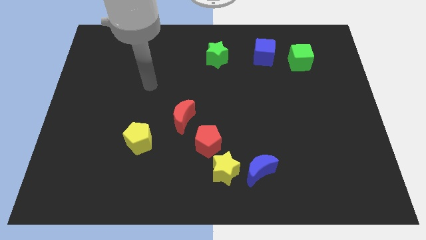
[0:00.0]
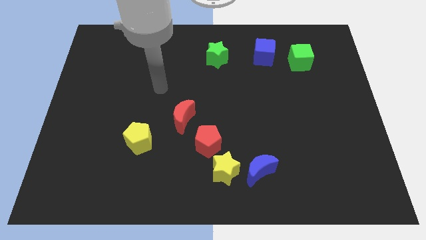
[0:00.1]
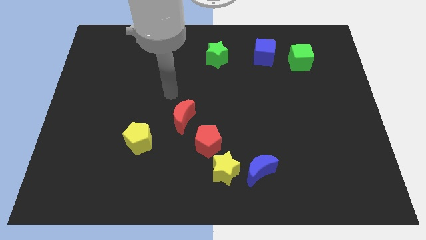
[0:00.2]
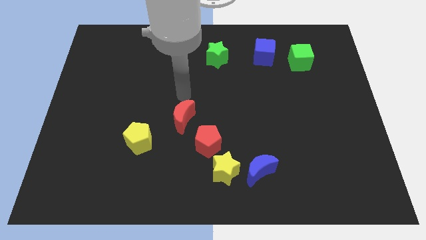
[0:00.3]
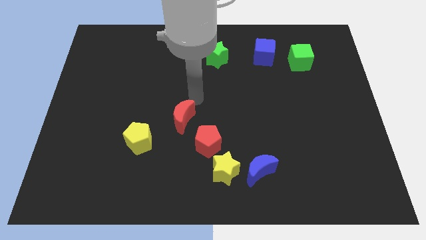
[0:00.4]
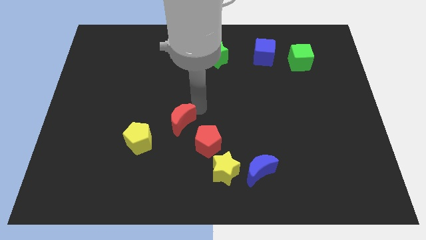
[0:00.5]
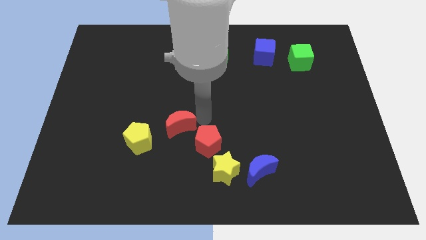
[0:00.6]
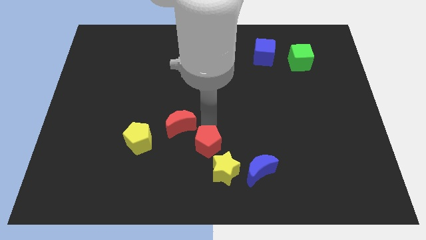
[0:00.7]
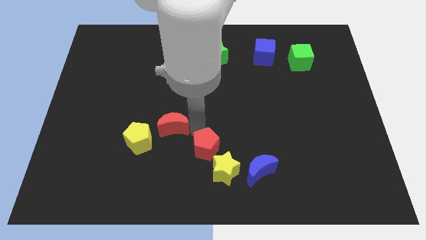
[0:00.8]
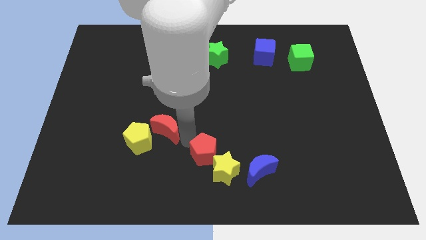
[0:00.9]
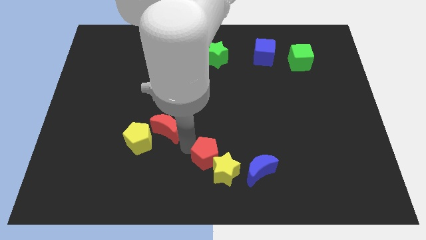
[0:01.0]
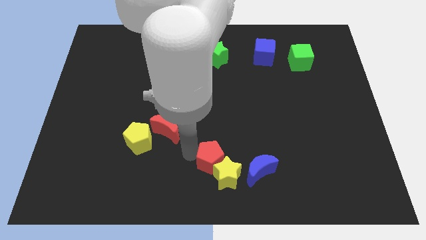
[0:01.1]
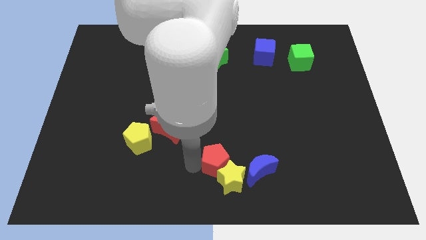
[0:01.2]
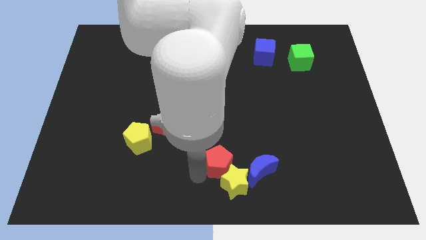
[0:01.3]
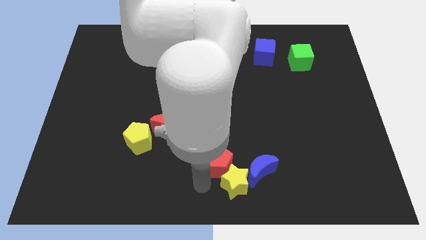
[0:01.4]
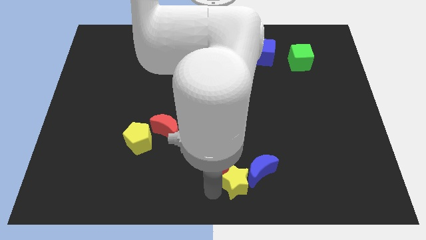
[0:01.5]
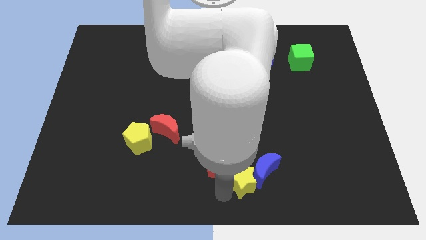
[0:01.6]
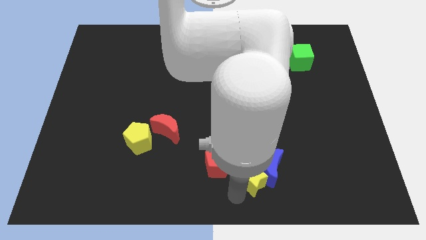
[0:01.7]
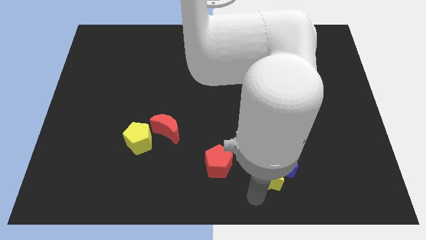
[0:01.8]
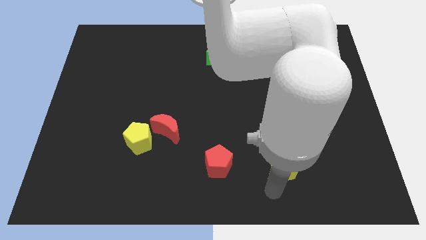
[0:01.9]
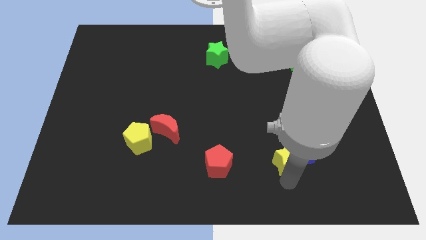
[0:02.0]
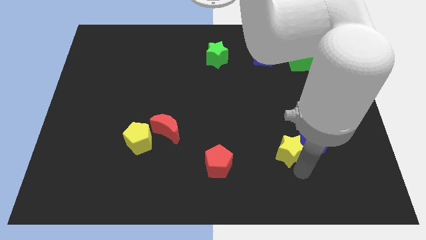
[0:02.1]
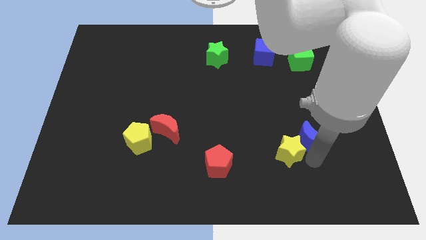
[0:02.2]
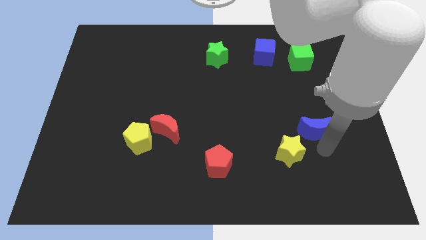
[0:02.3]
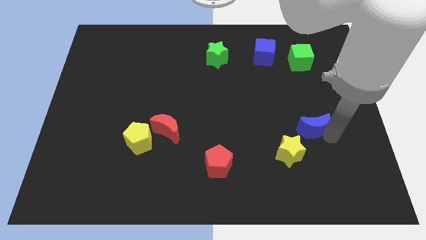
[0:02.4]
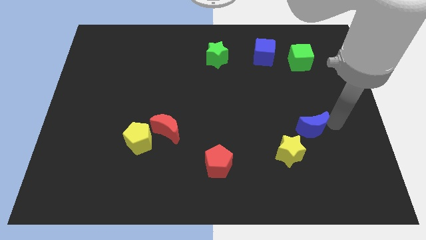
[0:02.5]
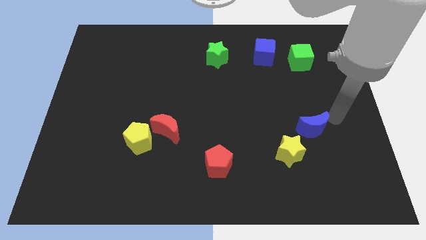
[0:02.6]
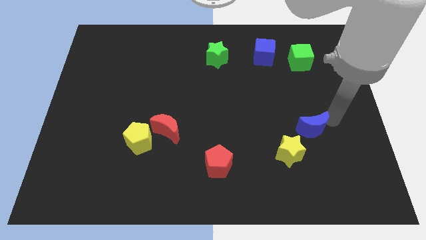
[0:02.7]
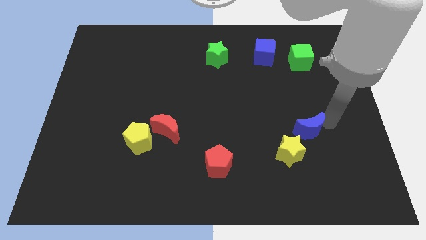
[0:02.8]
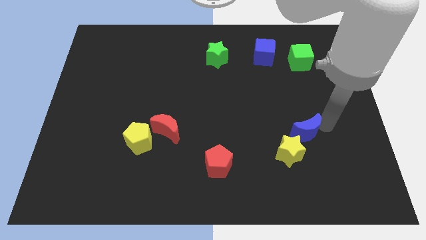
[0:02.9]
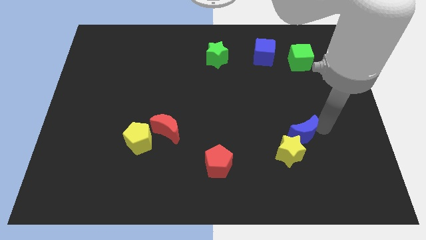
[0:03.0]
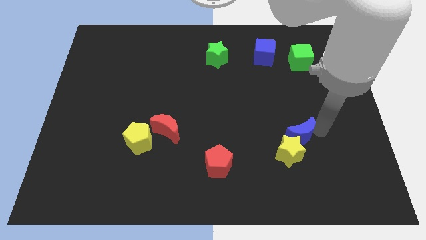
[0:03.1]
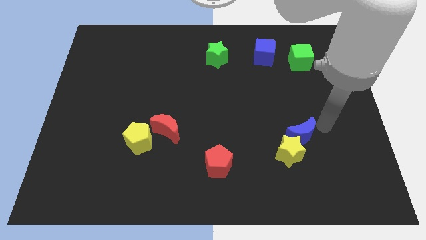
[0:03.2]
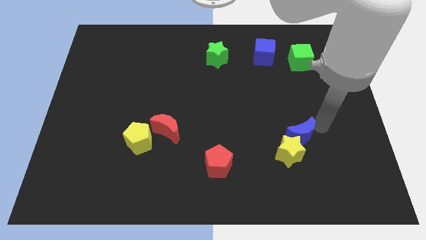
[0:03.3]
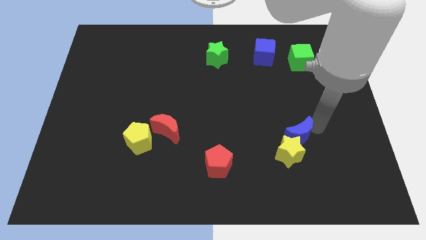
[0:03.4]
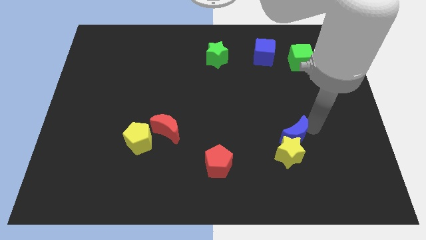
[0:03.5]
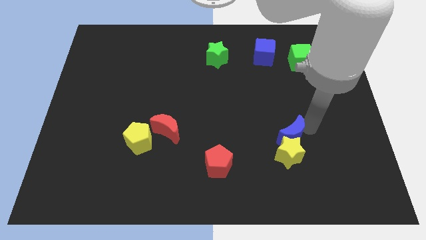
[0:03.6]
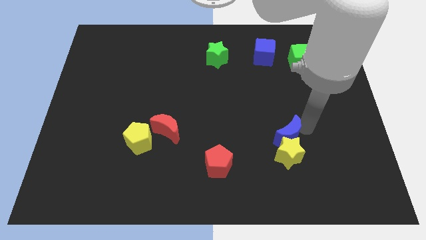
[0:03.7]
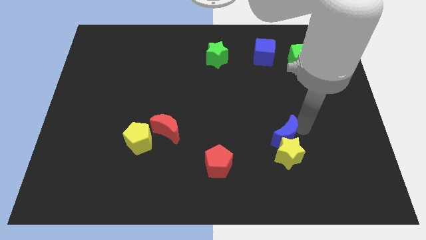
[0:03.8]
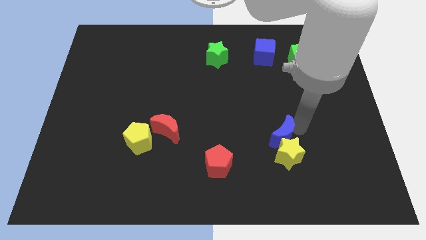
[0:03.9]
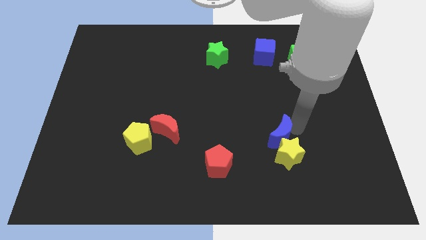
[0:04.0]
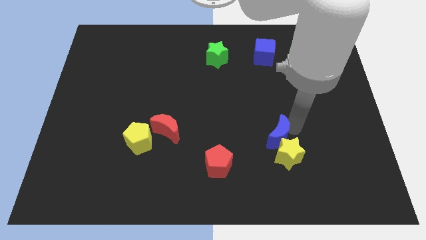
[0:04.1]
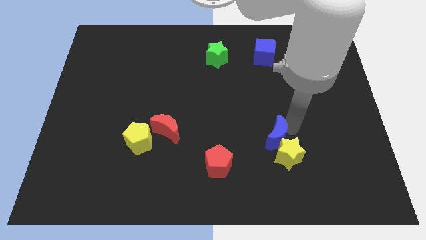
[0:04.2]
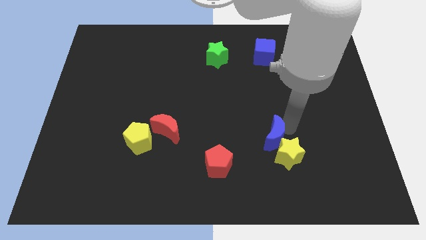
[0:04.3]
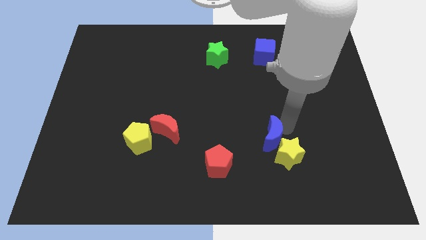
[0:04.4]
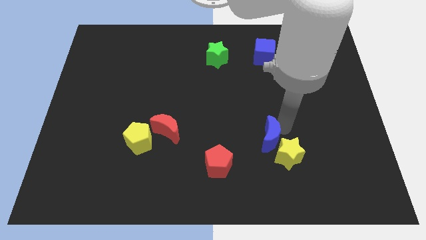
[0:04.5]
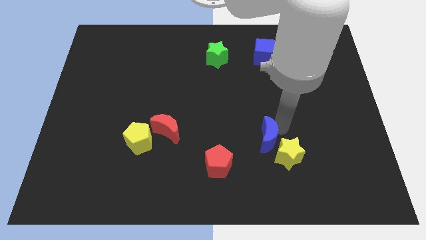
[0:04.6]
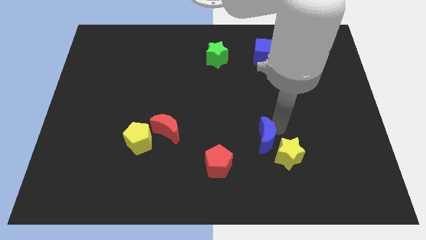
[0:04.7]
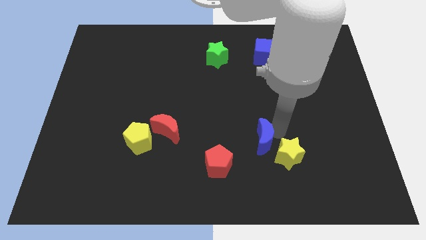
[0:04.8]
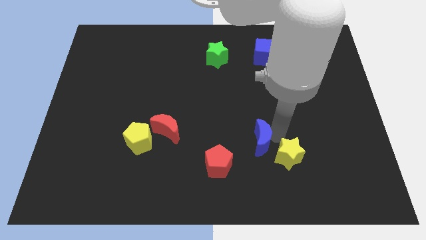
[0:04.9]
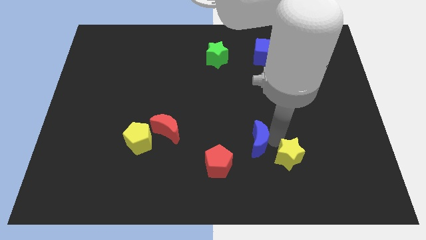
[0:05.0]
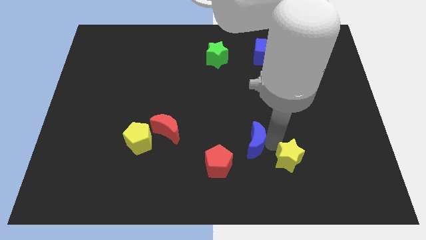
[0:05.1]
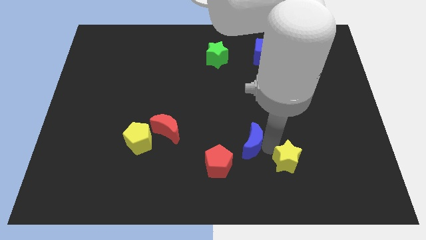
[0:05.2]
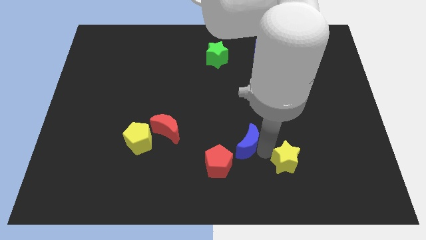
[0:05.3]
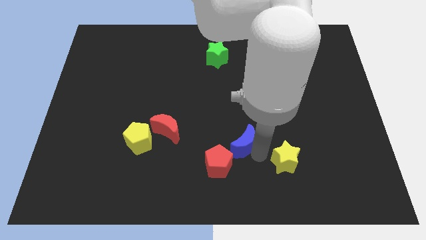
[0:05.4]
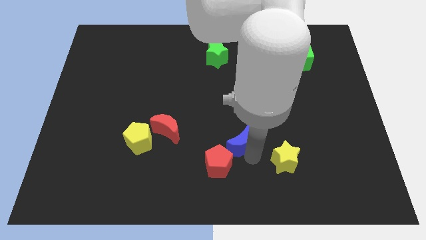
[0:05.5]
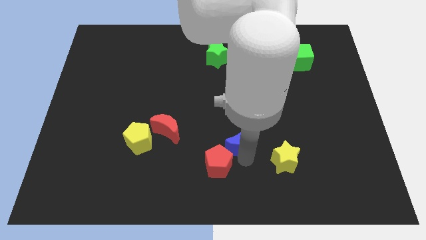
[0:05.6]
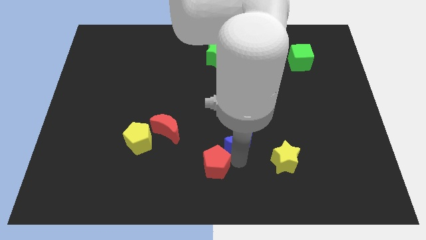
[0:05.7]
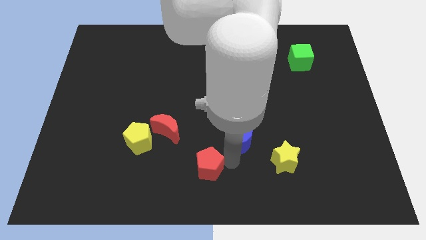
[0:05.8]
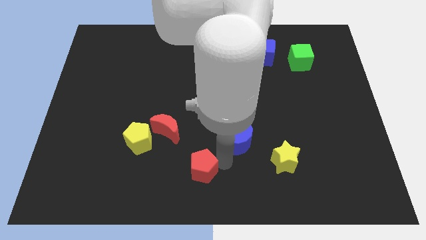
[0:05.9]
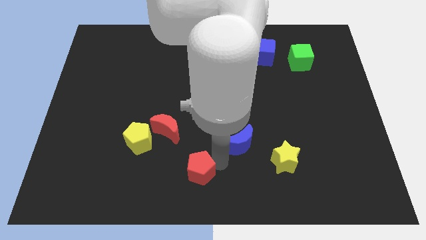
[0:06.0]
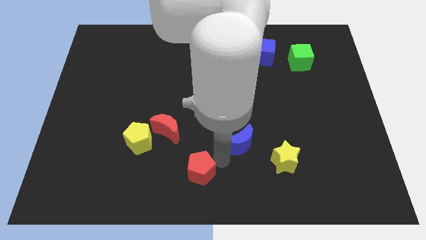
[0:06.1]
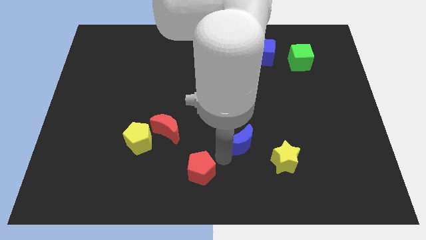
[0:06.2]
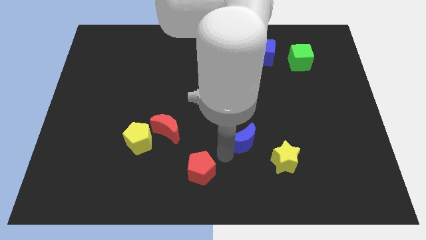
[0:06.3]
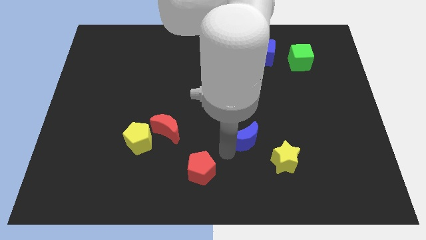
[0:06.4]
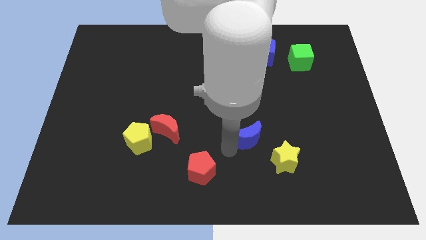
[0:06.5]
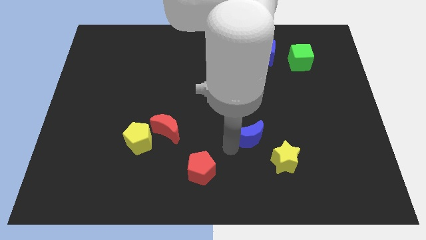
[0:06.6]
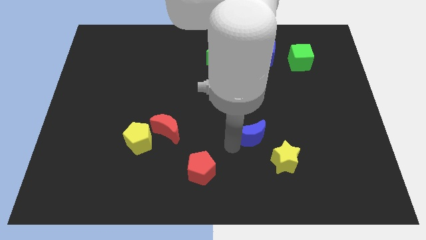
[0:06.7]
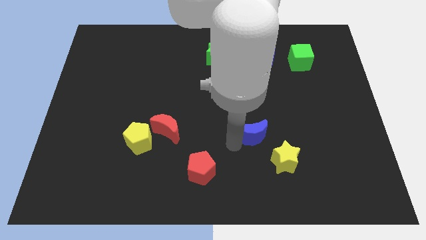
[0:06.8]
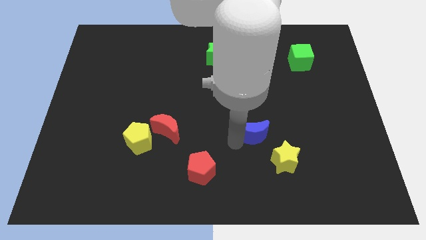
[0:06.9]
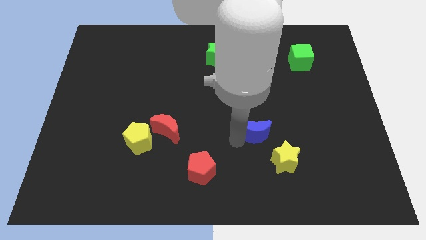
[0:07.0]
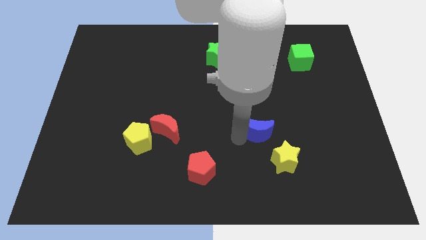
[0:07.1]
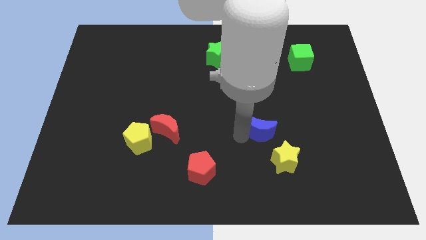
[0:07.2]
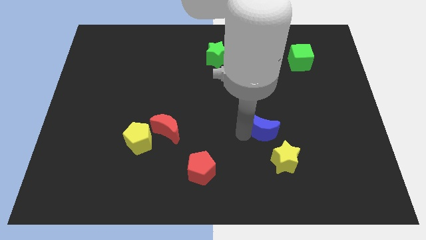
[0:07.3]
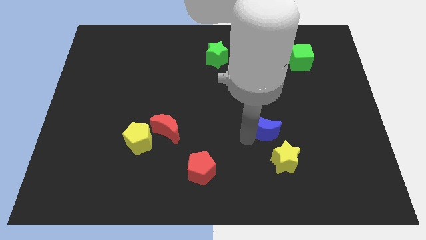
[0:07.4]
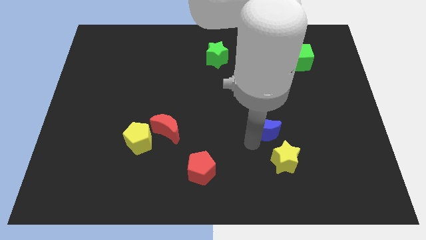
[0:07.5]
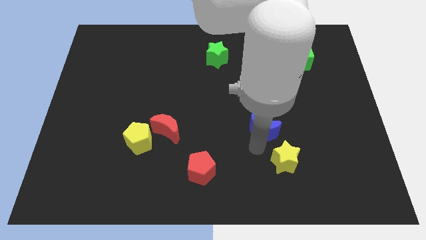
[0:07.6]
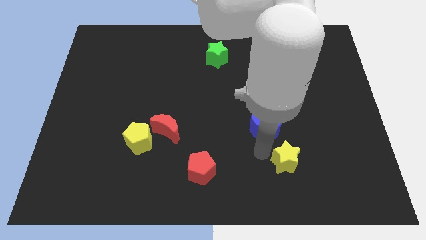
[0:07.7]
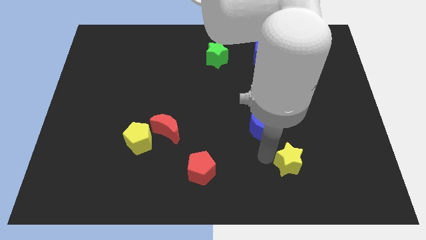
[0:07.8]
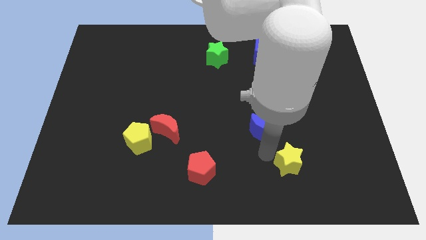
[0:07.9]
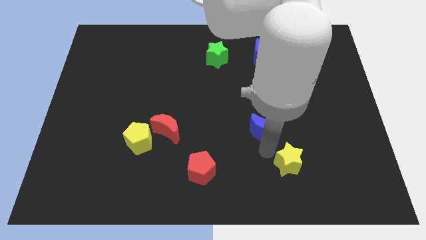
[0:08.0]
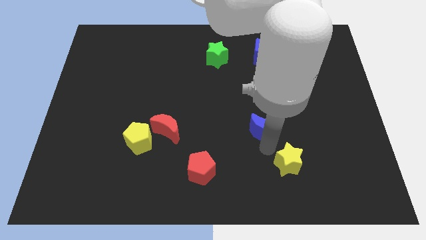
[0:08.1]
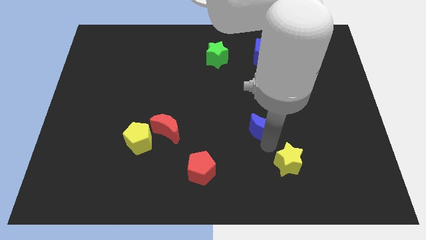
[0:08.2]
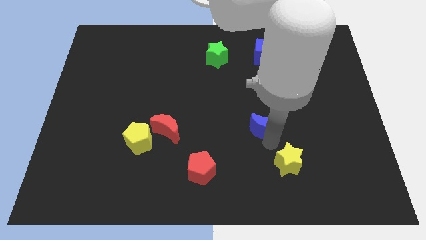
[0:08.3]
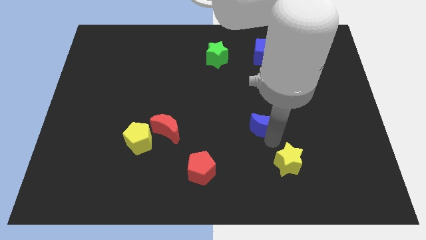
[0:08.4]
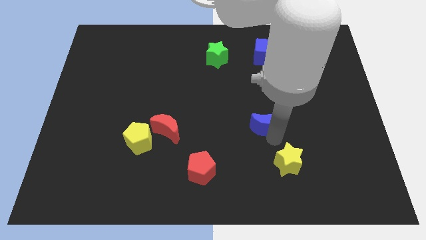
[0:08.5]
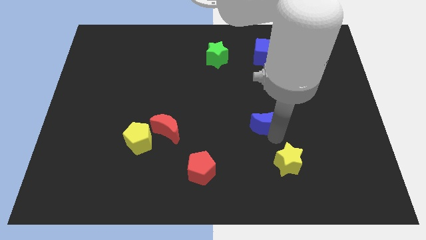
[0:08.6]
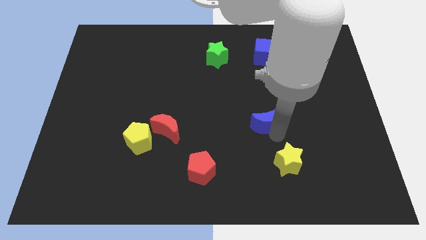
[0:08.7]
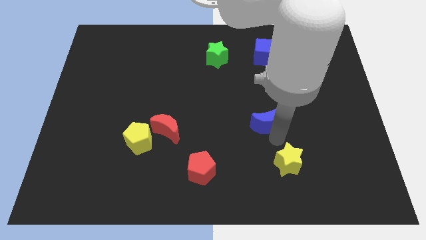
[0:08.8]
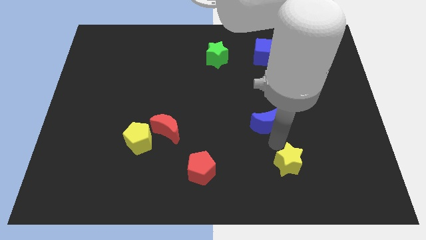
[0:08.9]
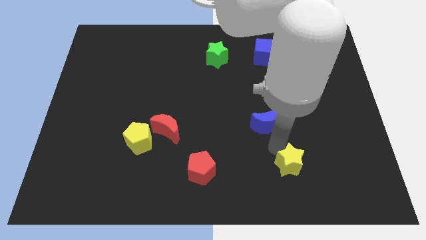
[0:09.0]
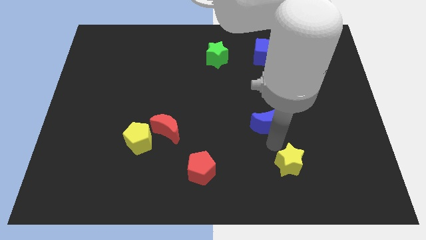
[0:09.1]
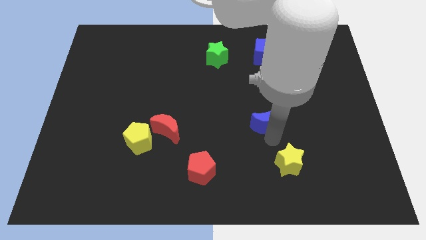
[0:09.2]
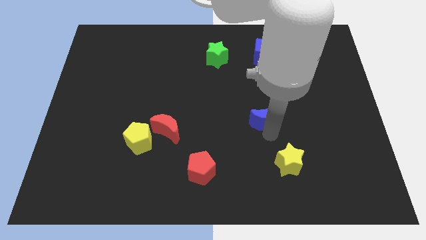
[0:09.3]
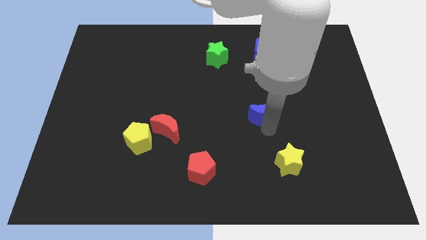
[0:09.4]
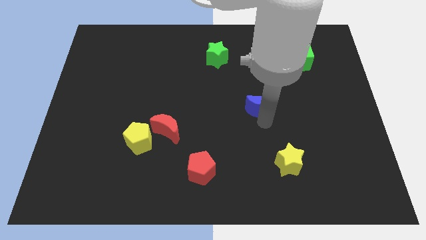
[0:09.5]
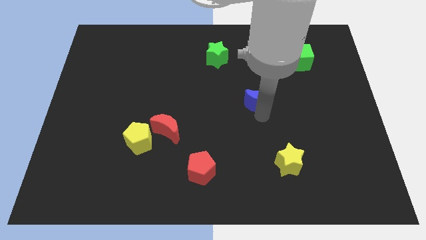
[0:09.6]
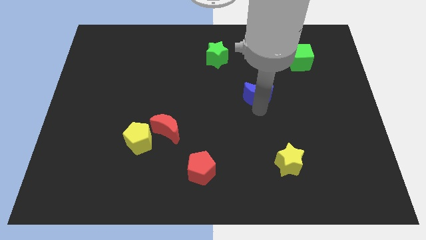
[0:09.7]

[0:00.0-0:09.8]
move the blue moon up
